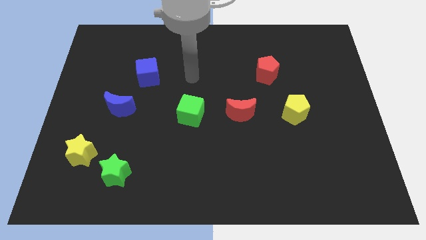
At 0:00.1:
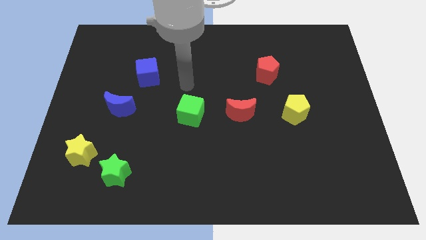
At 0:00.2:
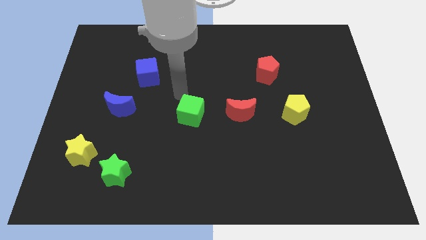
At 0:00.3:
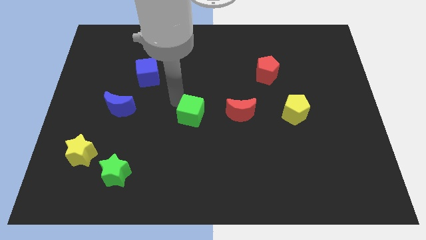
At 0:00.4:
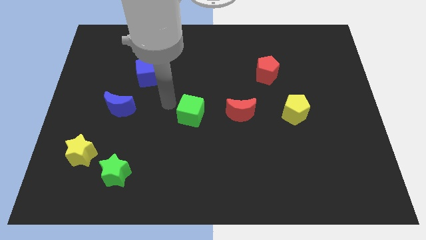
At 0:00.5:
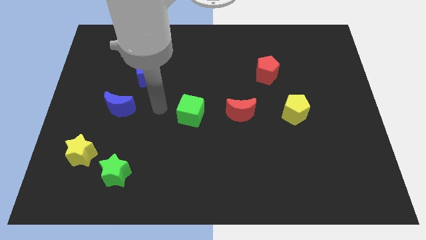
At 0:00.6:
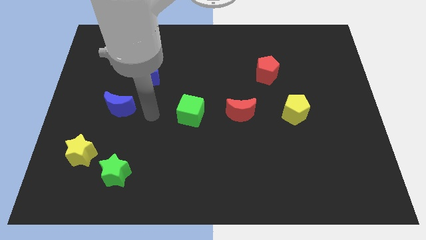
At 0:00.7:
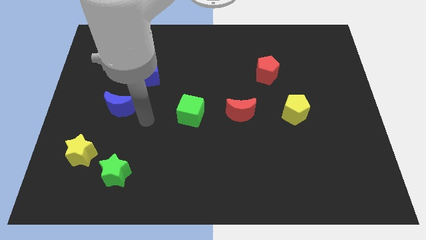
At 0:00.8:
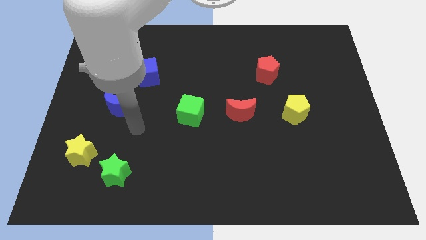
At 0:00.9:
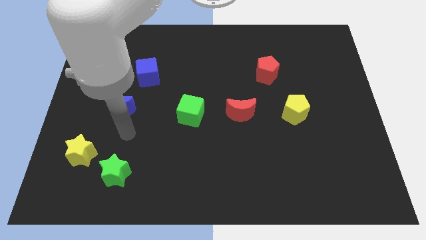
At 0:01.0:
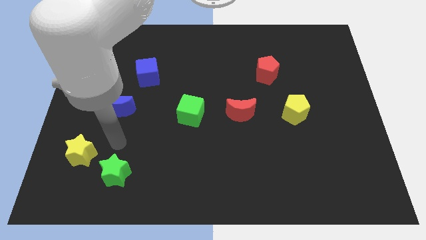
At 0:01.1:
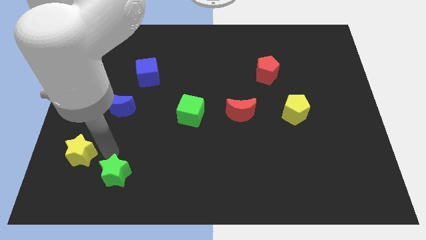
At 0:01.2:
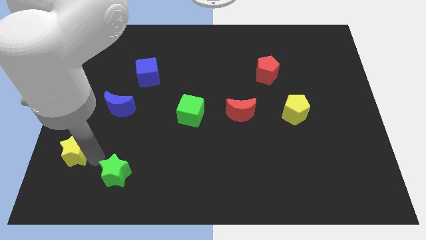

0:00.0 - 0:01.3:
separate the green star from the yellow star

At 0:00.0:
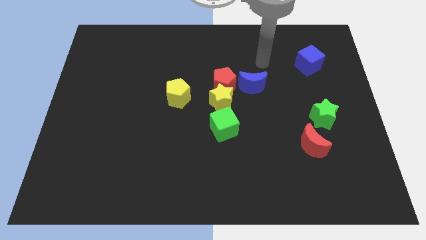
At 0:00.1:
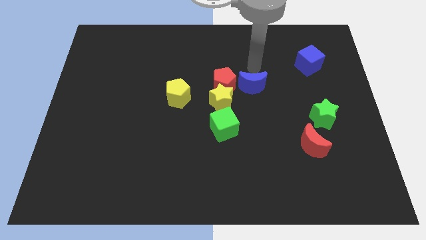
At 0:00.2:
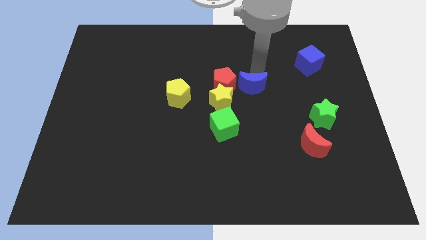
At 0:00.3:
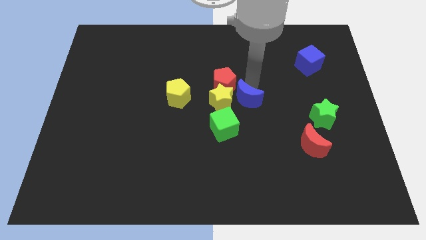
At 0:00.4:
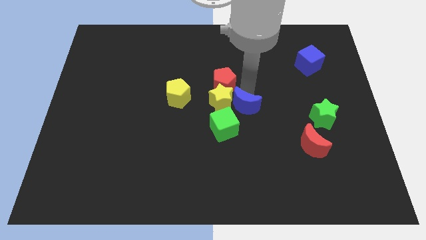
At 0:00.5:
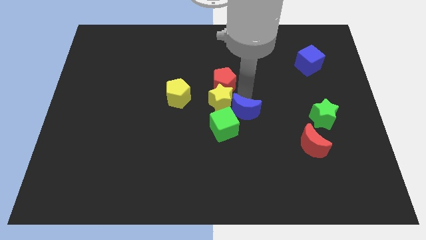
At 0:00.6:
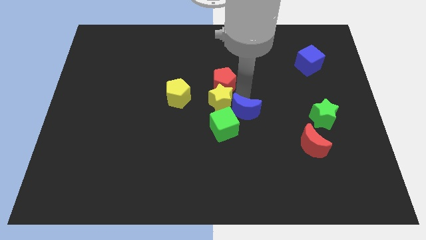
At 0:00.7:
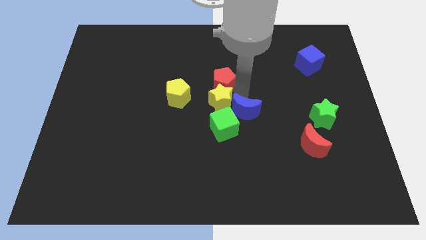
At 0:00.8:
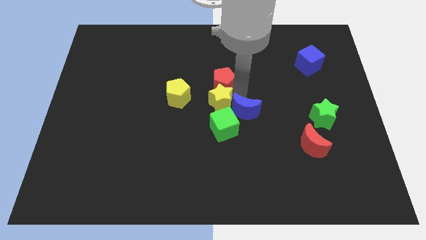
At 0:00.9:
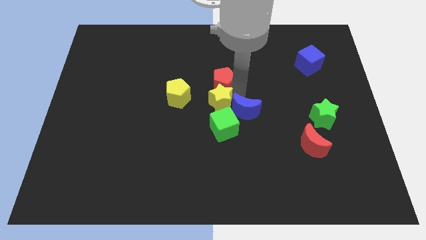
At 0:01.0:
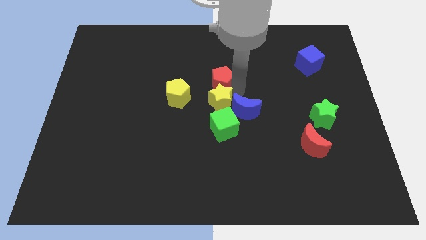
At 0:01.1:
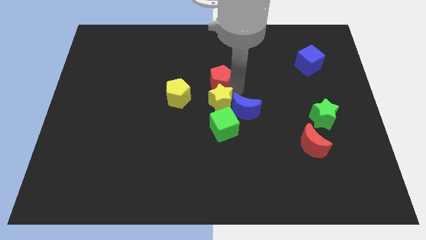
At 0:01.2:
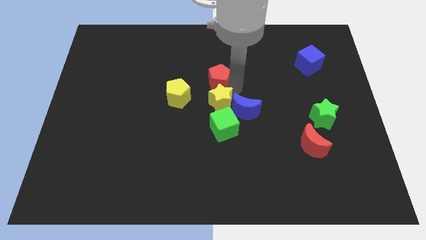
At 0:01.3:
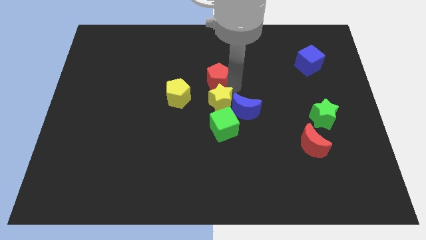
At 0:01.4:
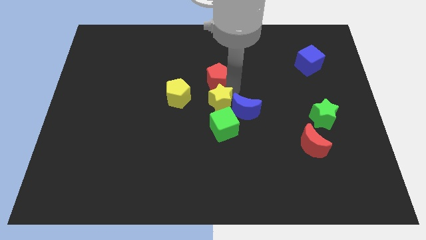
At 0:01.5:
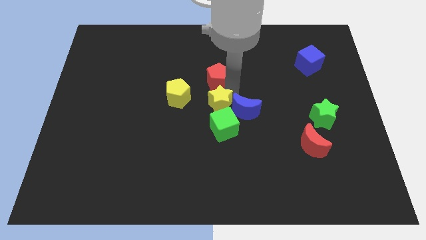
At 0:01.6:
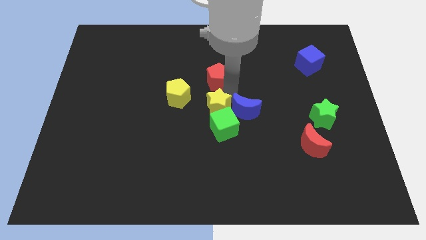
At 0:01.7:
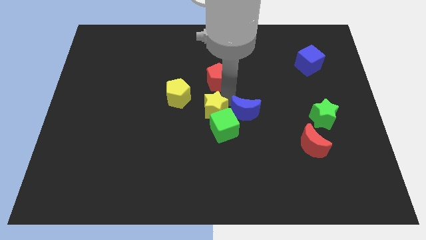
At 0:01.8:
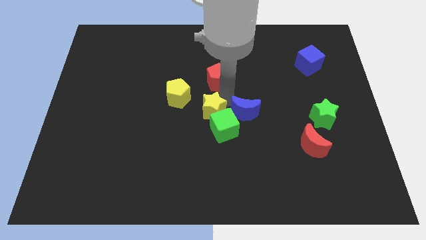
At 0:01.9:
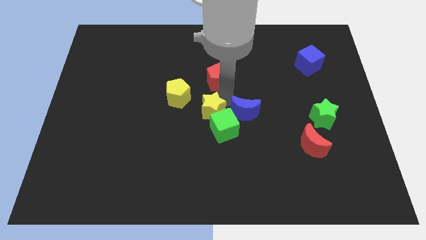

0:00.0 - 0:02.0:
move the red pentagon away from the yellow star and blue moon

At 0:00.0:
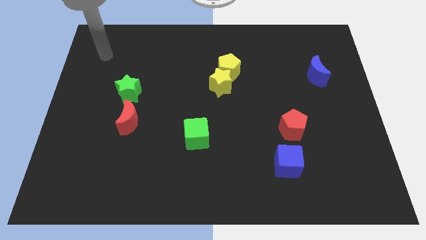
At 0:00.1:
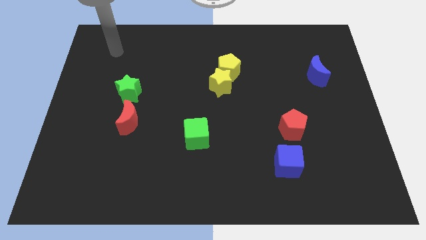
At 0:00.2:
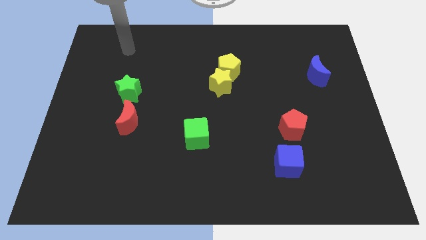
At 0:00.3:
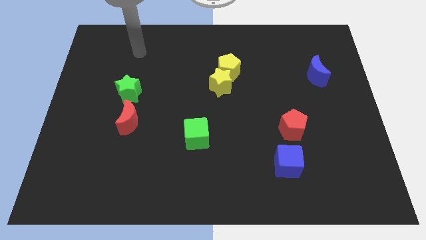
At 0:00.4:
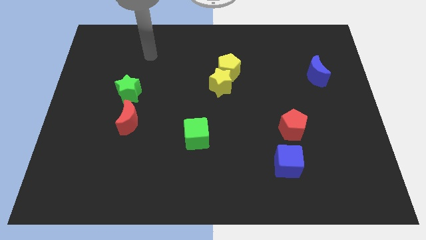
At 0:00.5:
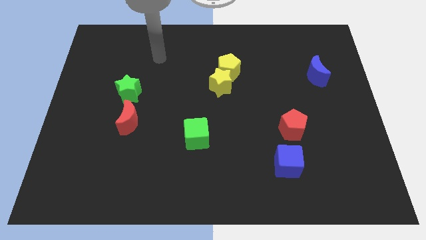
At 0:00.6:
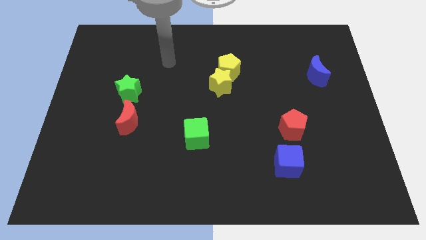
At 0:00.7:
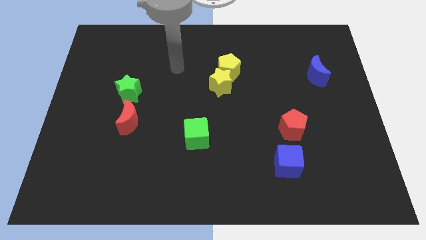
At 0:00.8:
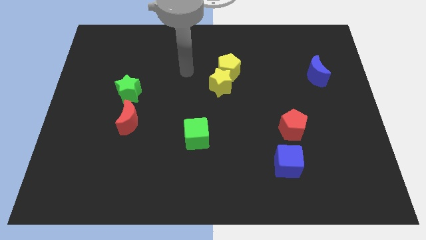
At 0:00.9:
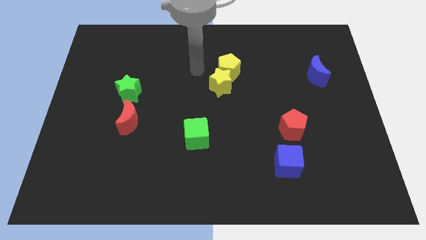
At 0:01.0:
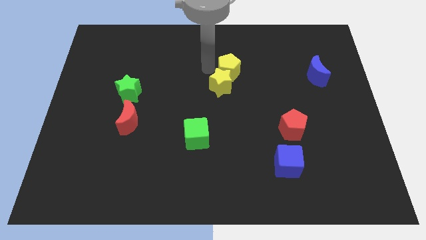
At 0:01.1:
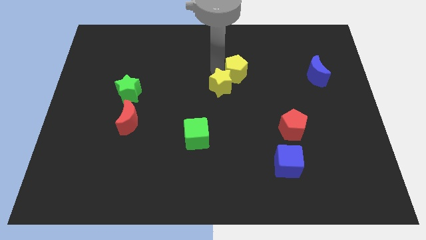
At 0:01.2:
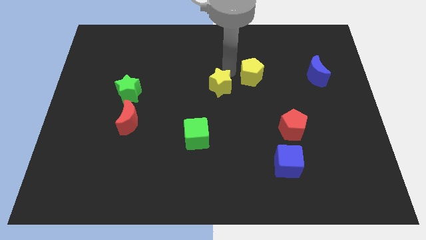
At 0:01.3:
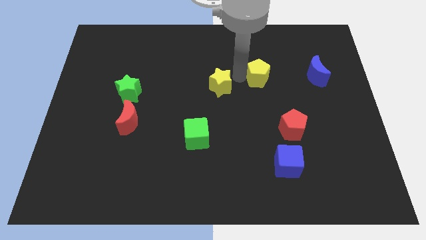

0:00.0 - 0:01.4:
pull the yellow star apart from the yellow pentagon

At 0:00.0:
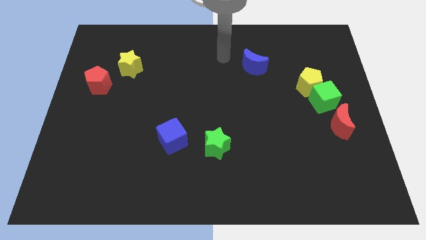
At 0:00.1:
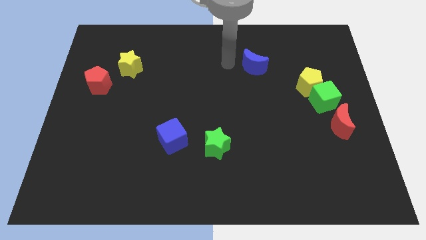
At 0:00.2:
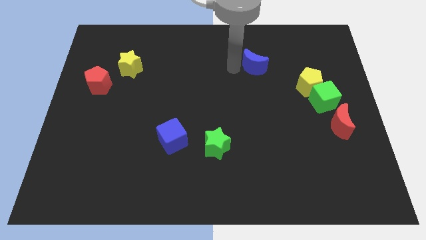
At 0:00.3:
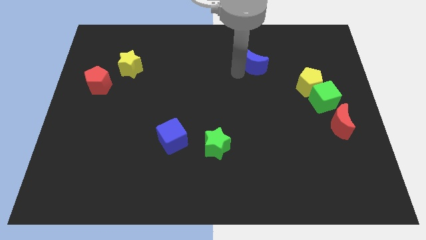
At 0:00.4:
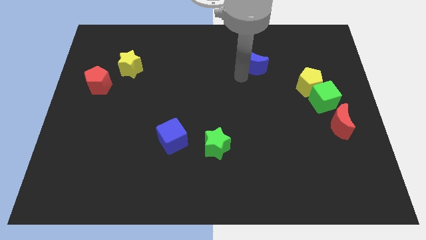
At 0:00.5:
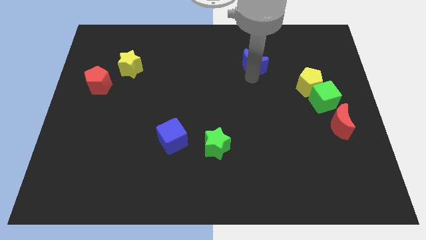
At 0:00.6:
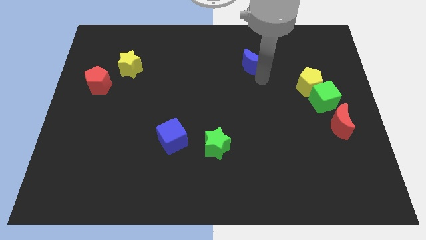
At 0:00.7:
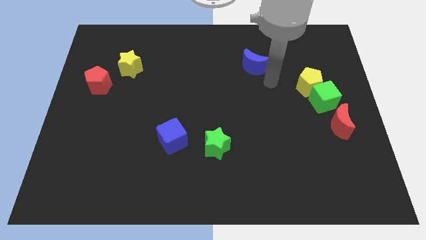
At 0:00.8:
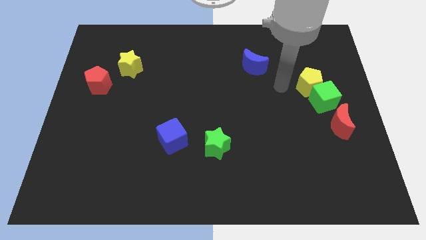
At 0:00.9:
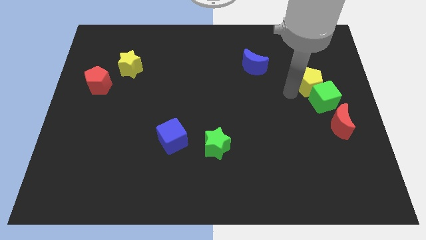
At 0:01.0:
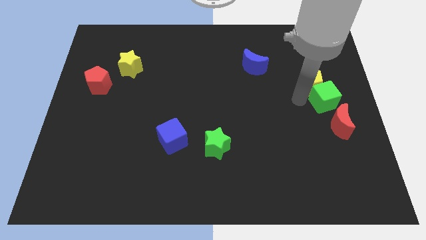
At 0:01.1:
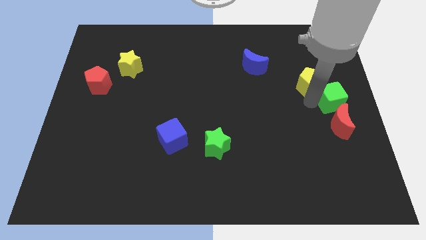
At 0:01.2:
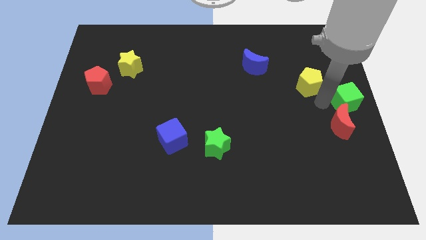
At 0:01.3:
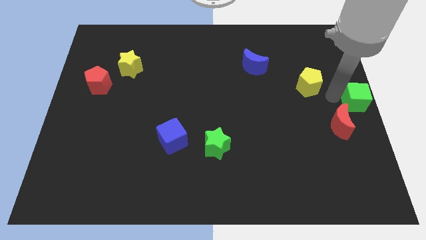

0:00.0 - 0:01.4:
separate the yellow pentagon from the green cube

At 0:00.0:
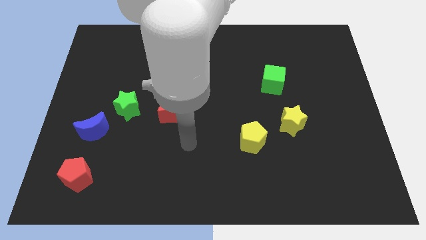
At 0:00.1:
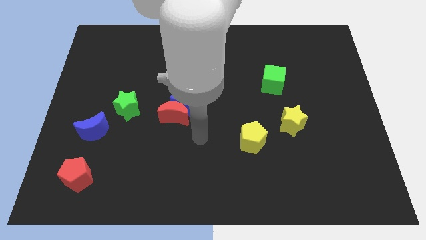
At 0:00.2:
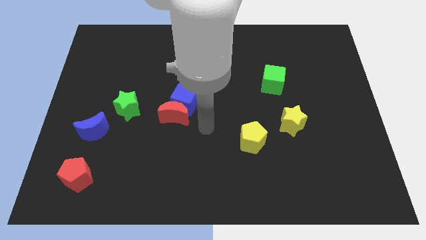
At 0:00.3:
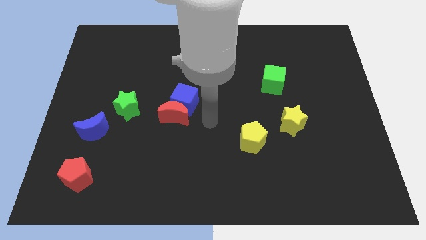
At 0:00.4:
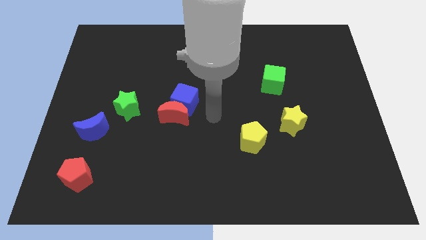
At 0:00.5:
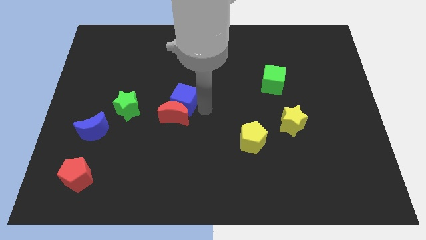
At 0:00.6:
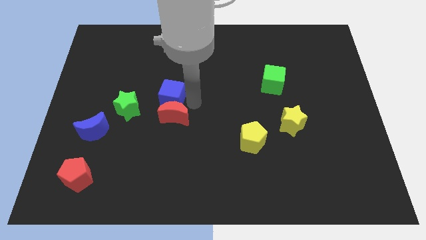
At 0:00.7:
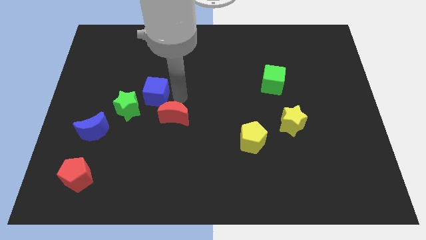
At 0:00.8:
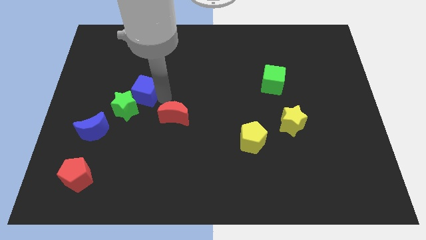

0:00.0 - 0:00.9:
move the red moon away from the blue cube

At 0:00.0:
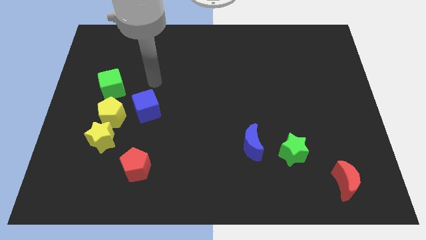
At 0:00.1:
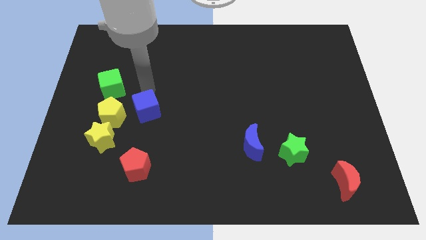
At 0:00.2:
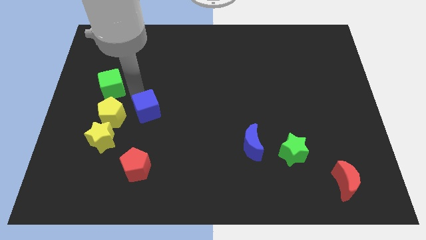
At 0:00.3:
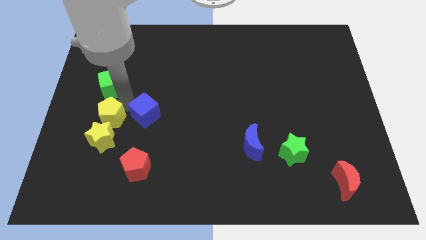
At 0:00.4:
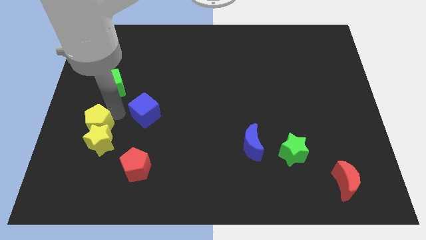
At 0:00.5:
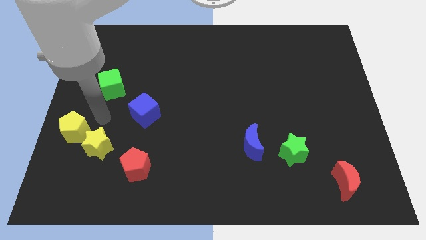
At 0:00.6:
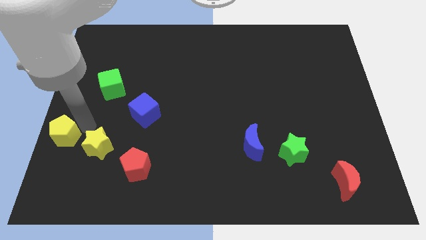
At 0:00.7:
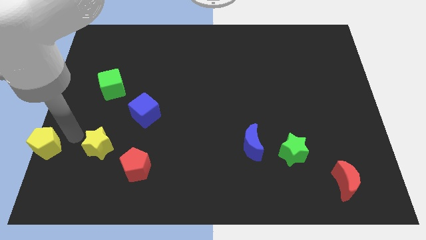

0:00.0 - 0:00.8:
separate the yellow star from the yellow pentagon

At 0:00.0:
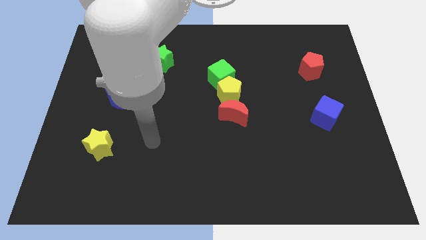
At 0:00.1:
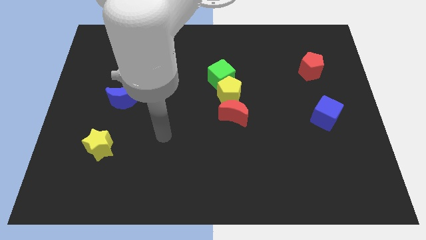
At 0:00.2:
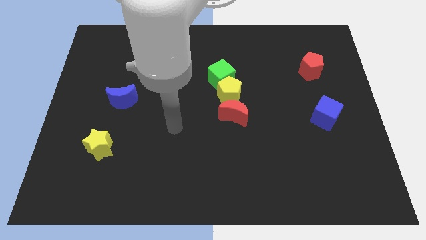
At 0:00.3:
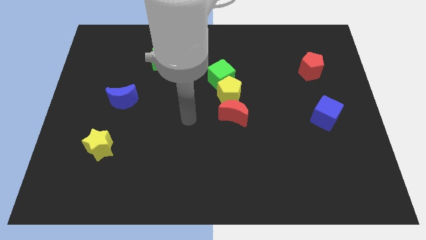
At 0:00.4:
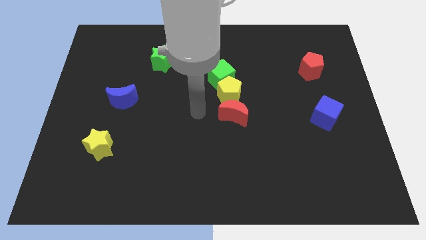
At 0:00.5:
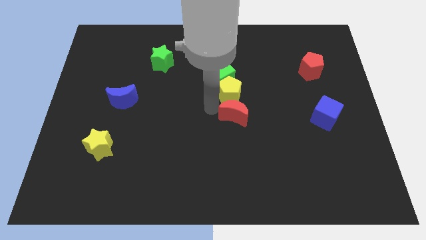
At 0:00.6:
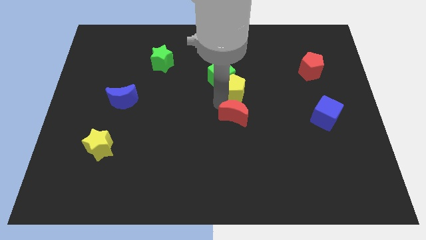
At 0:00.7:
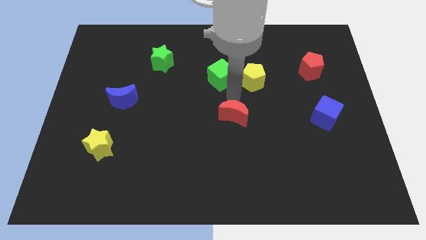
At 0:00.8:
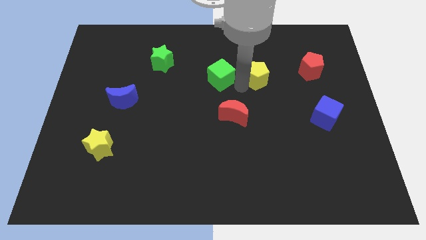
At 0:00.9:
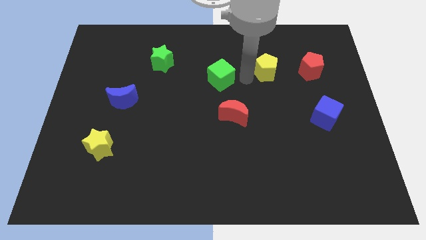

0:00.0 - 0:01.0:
separate the green cube from the yellow pentagon

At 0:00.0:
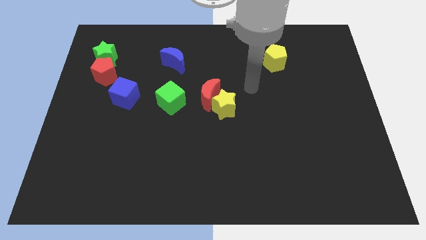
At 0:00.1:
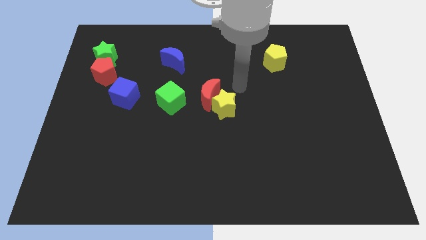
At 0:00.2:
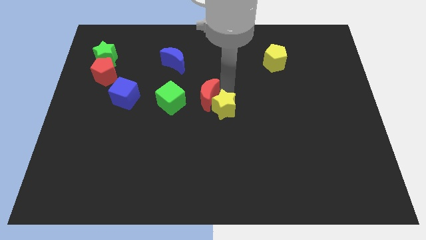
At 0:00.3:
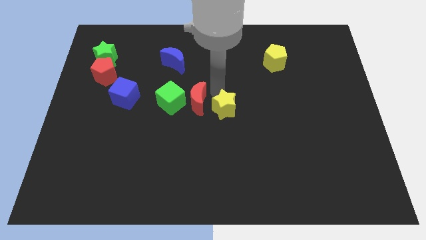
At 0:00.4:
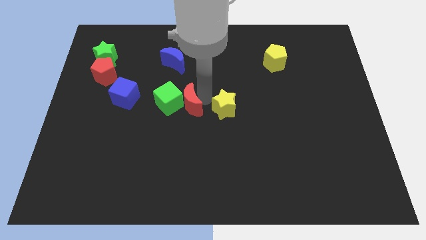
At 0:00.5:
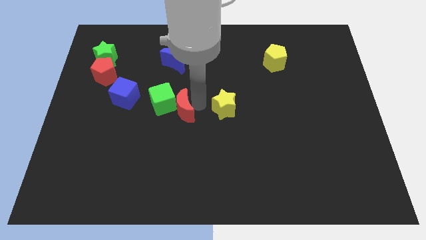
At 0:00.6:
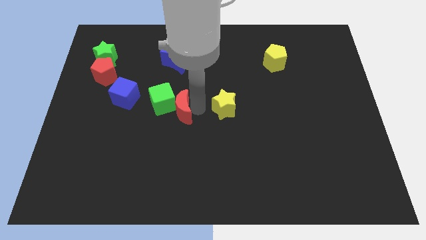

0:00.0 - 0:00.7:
move the yellow star away from the red moon
